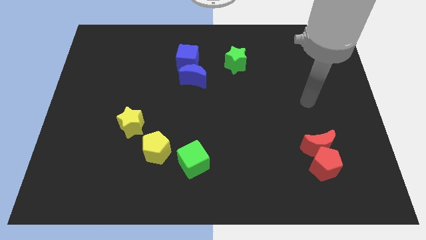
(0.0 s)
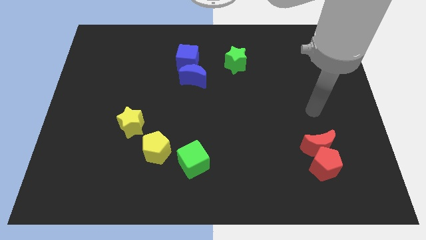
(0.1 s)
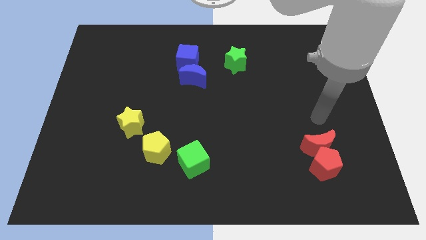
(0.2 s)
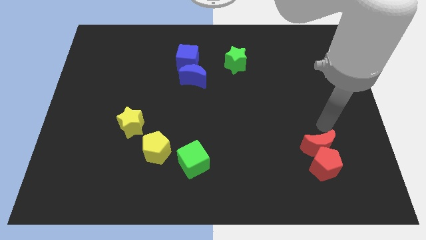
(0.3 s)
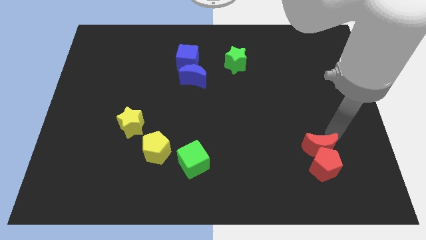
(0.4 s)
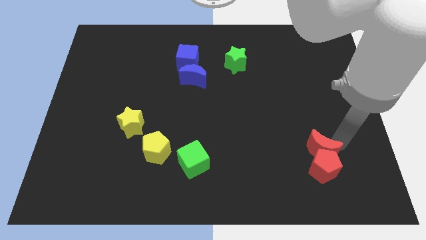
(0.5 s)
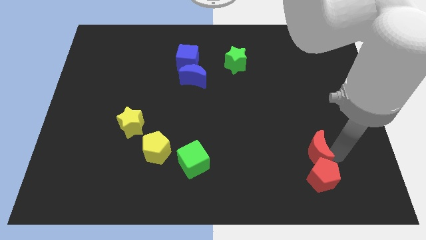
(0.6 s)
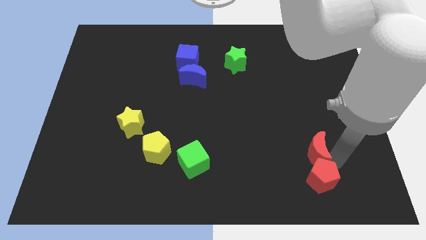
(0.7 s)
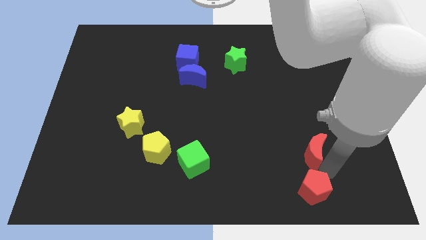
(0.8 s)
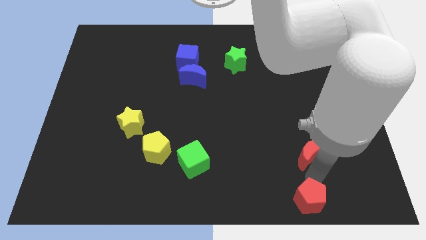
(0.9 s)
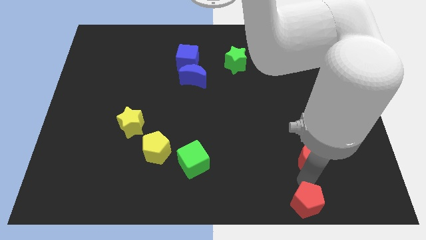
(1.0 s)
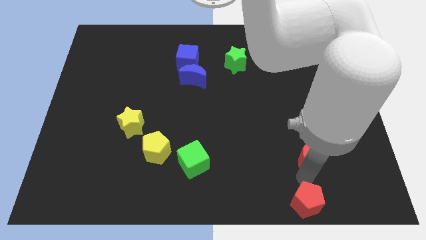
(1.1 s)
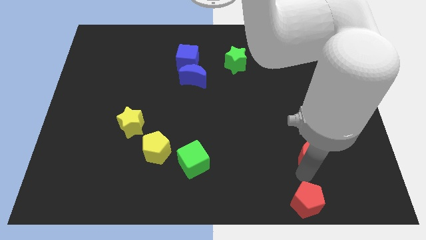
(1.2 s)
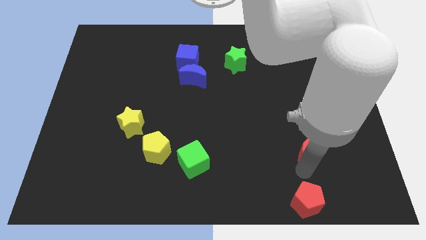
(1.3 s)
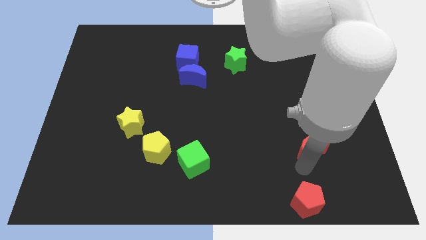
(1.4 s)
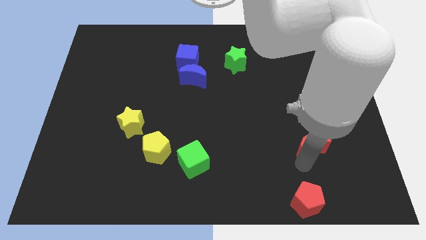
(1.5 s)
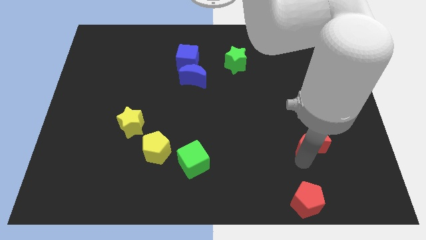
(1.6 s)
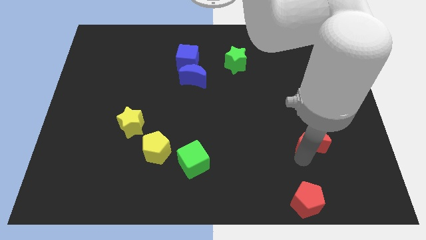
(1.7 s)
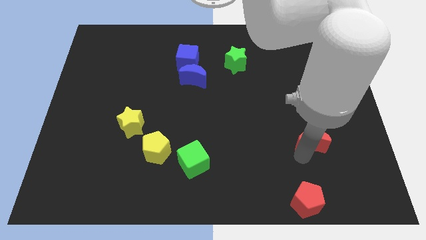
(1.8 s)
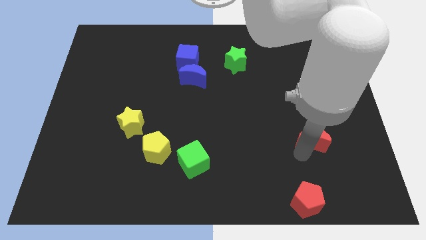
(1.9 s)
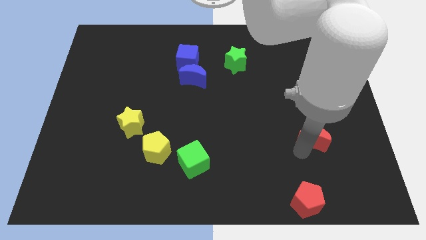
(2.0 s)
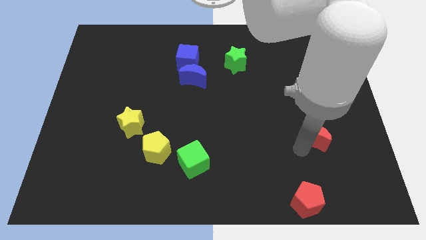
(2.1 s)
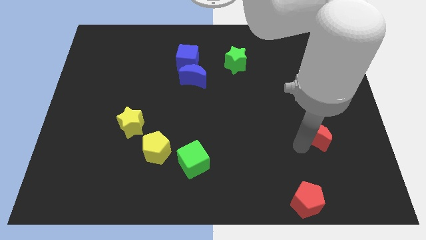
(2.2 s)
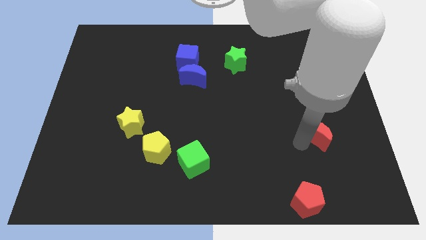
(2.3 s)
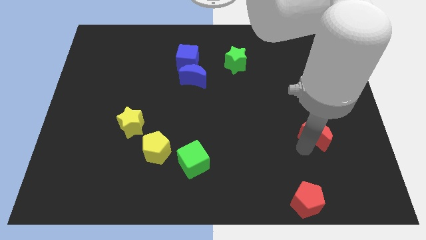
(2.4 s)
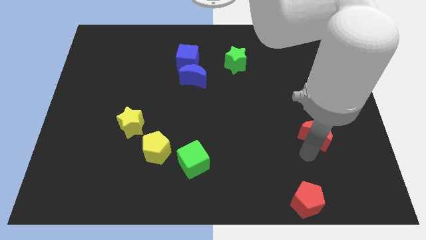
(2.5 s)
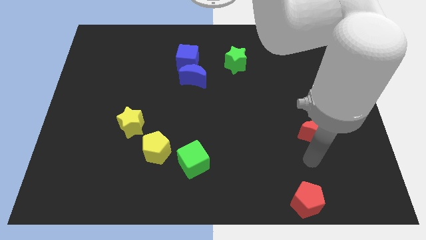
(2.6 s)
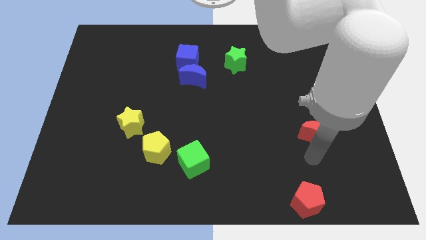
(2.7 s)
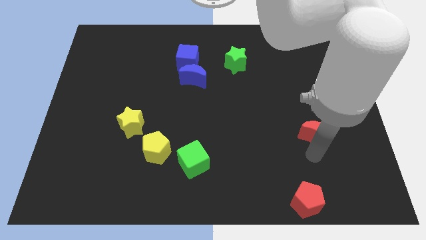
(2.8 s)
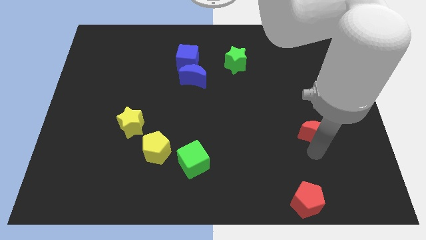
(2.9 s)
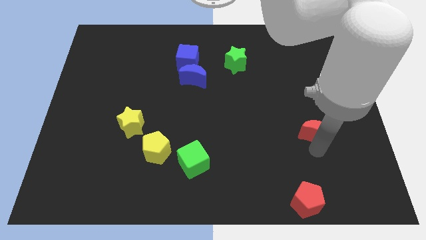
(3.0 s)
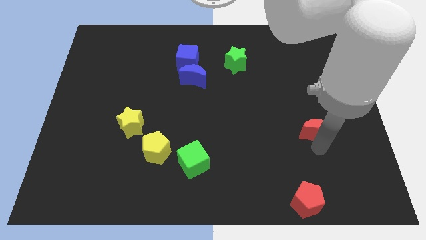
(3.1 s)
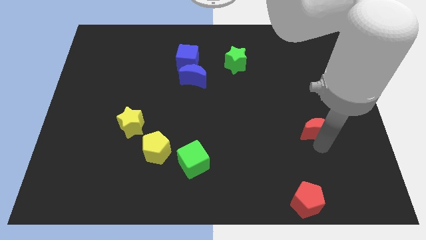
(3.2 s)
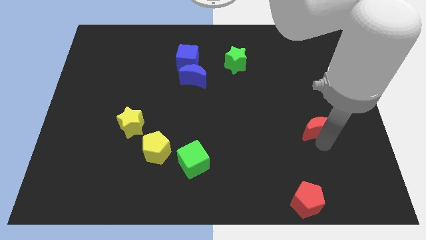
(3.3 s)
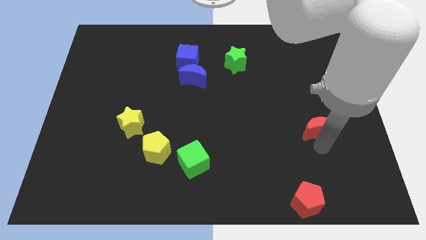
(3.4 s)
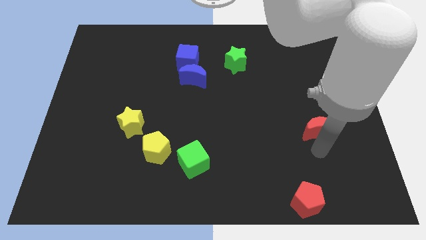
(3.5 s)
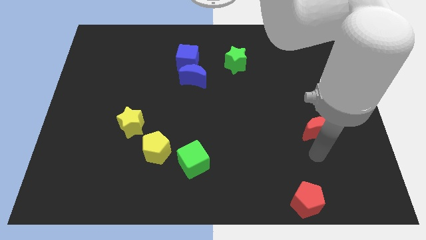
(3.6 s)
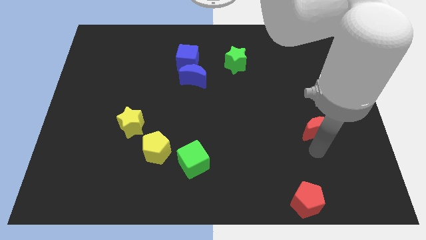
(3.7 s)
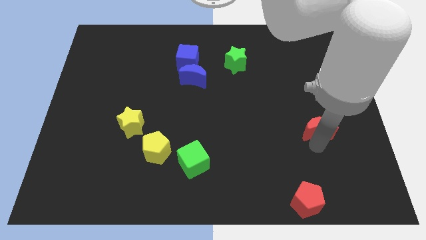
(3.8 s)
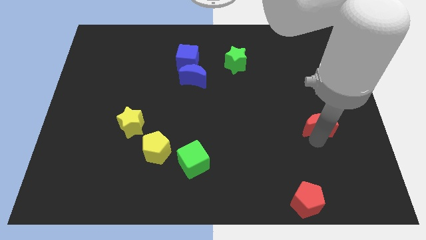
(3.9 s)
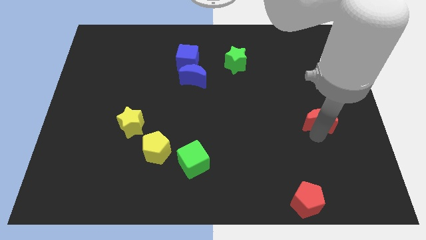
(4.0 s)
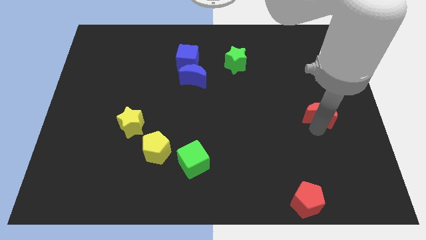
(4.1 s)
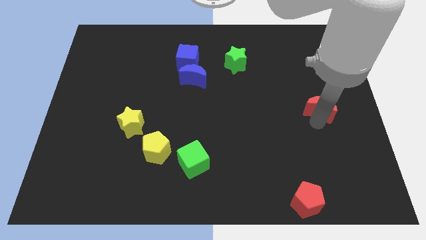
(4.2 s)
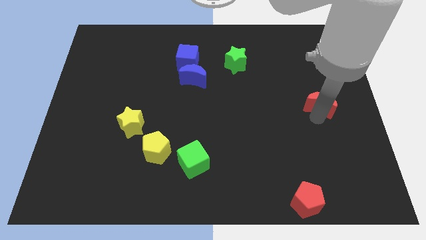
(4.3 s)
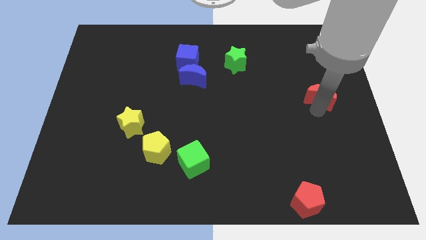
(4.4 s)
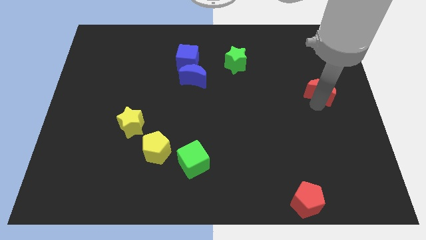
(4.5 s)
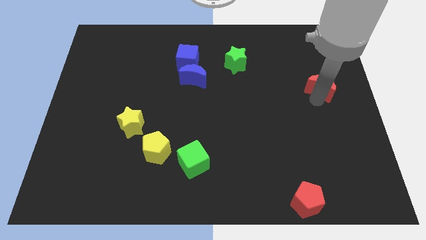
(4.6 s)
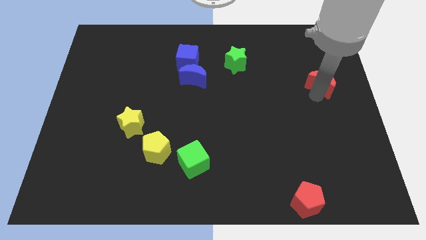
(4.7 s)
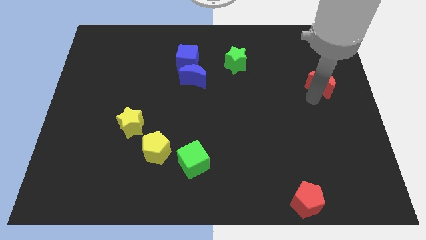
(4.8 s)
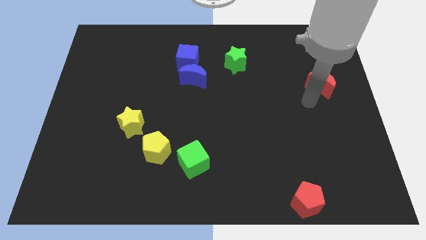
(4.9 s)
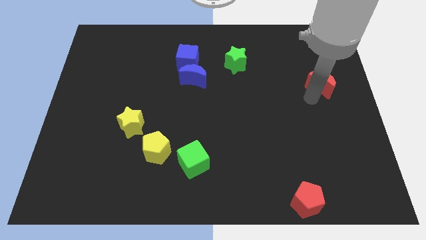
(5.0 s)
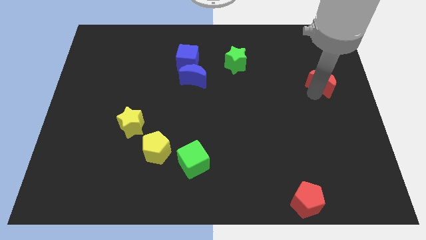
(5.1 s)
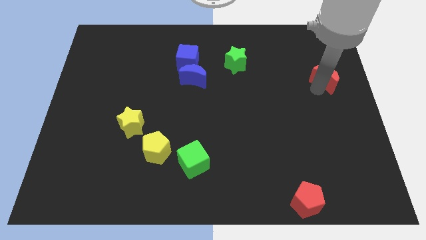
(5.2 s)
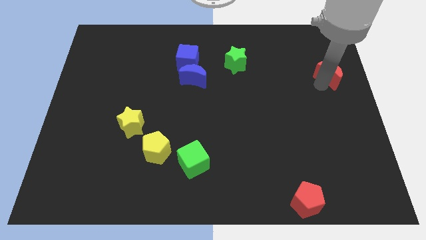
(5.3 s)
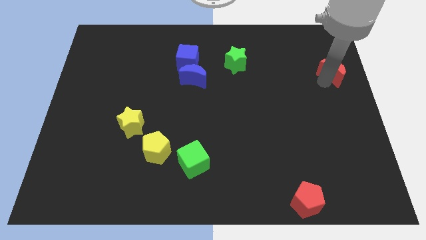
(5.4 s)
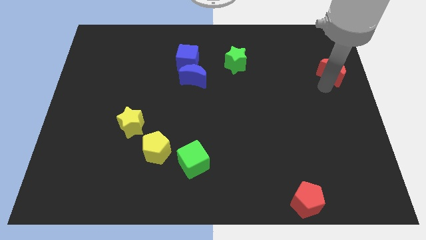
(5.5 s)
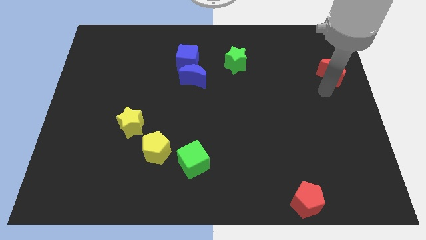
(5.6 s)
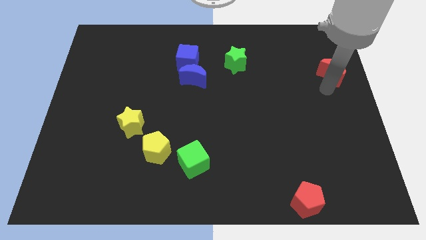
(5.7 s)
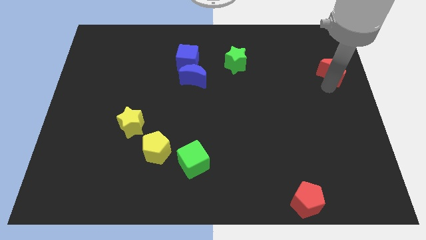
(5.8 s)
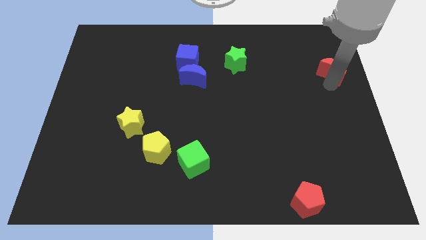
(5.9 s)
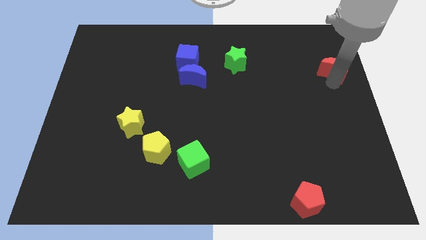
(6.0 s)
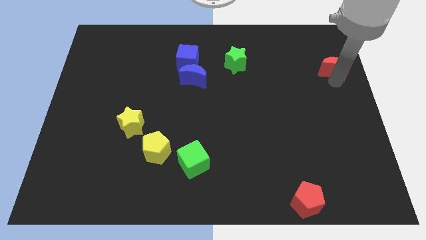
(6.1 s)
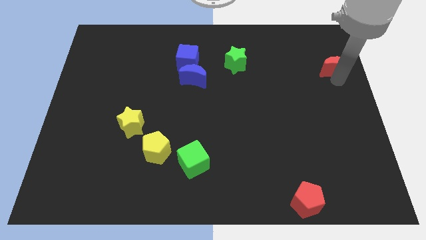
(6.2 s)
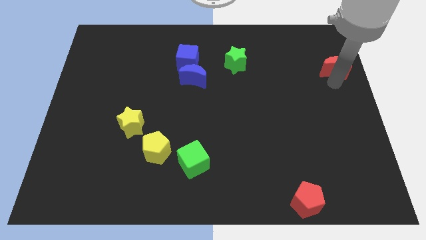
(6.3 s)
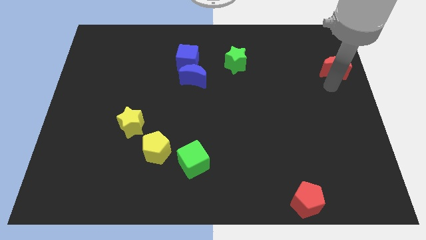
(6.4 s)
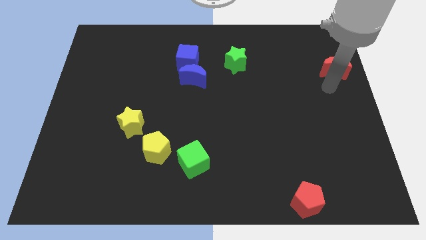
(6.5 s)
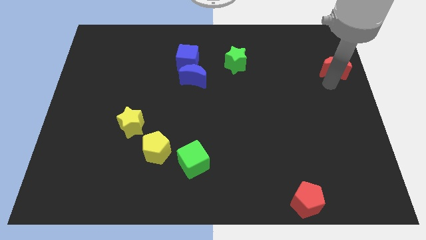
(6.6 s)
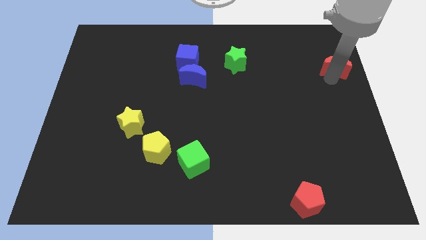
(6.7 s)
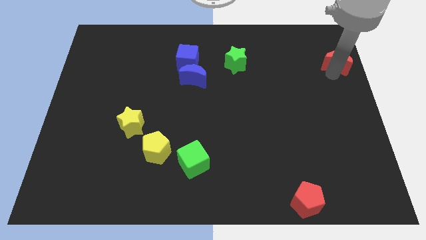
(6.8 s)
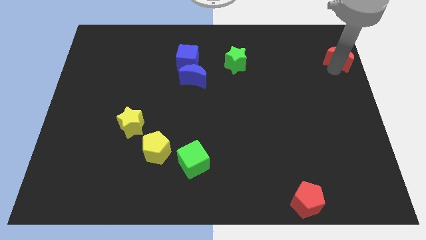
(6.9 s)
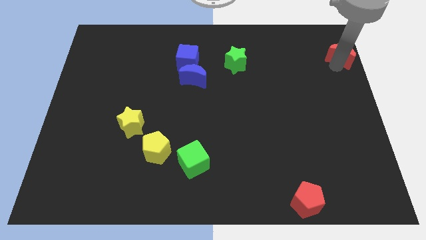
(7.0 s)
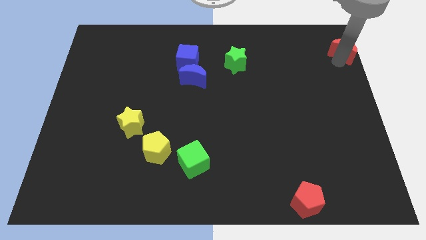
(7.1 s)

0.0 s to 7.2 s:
push the red moon to the upper right corner
